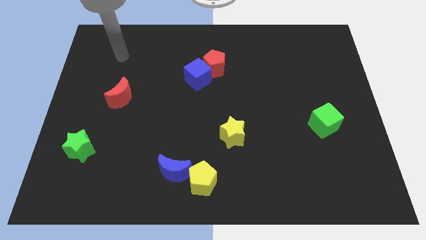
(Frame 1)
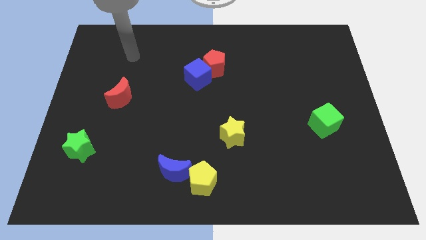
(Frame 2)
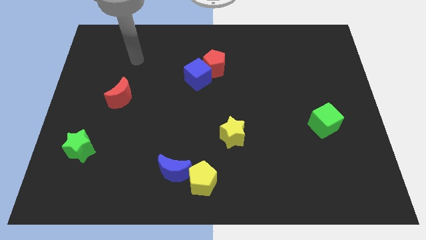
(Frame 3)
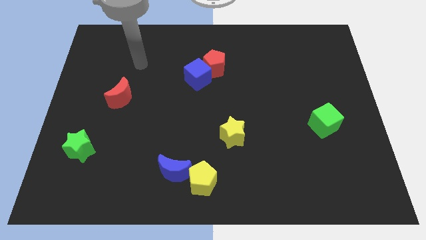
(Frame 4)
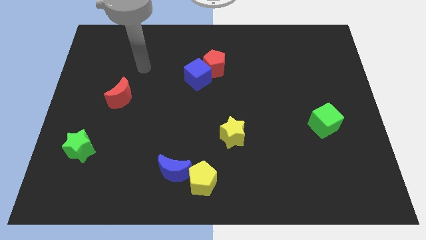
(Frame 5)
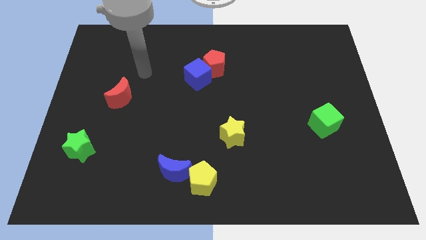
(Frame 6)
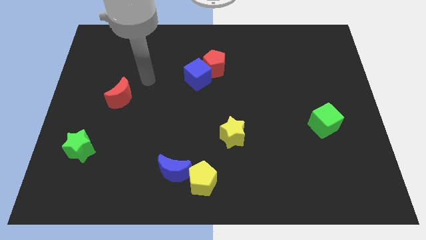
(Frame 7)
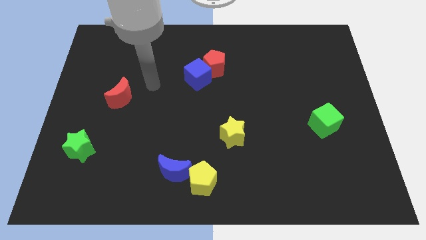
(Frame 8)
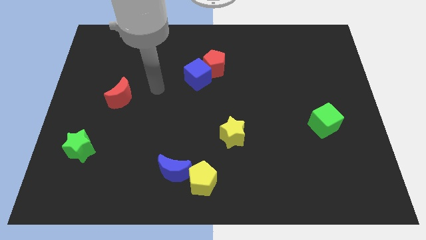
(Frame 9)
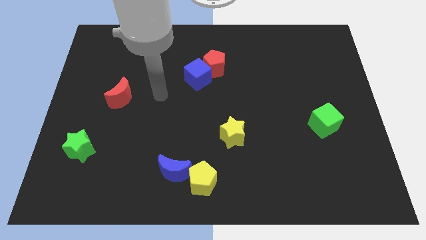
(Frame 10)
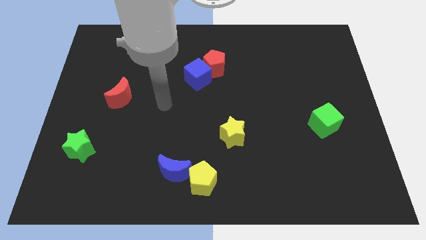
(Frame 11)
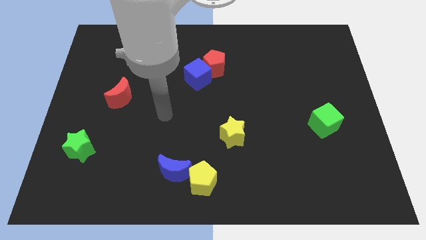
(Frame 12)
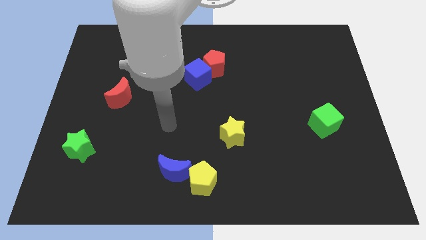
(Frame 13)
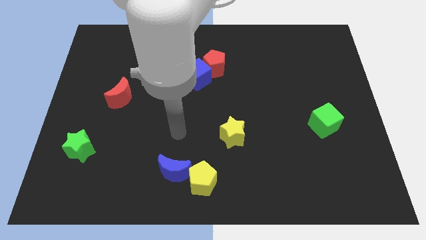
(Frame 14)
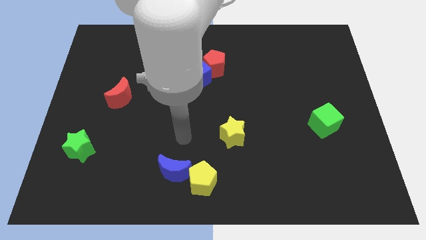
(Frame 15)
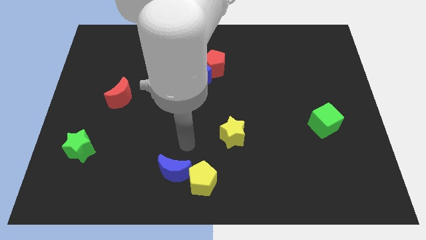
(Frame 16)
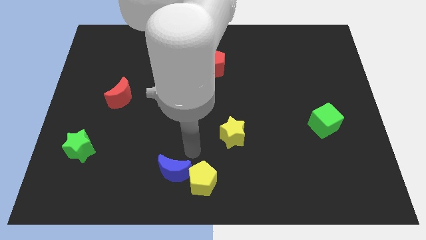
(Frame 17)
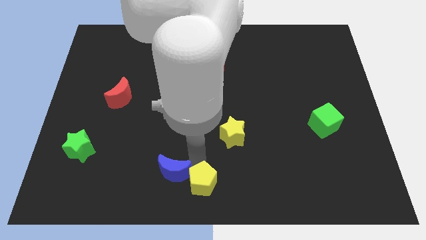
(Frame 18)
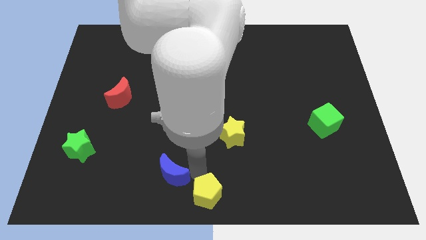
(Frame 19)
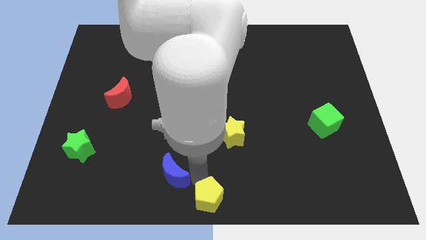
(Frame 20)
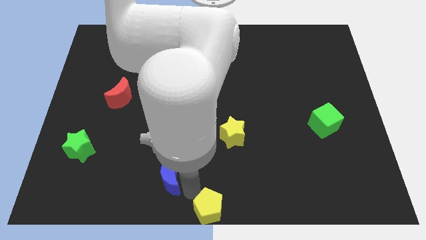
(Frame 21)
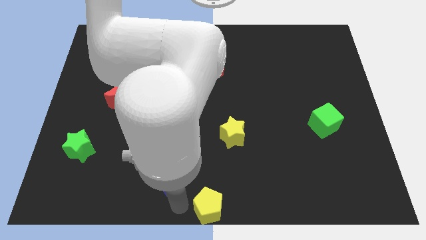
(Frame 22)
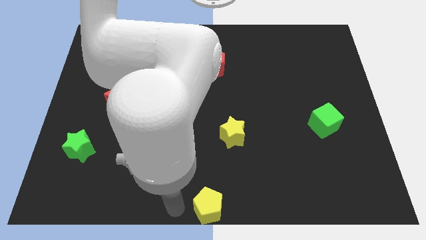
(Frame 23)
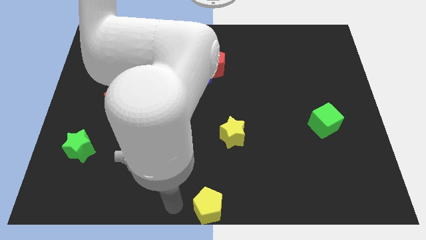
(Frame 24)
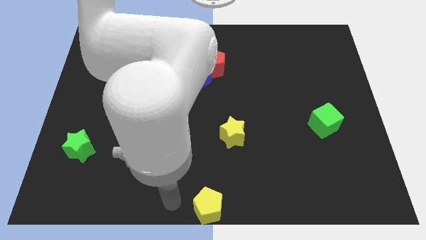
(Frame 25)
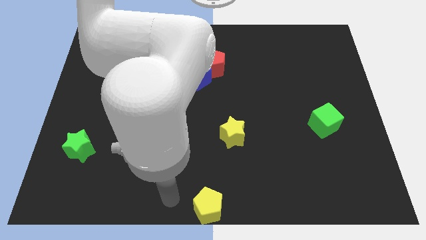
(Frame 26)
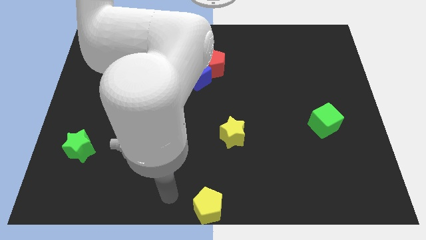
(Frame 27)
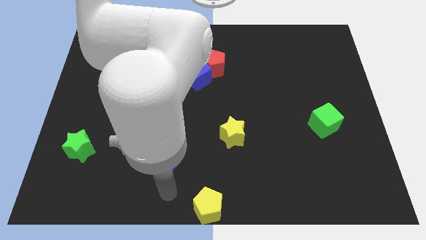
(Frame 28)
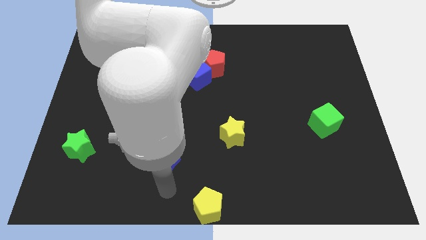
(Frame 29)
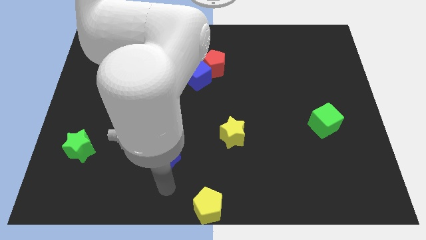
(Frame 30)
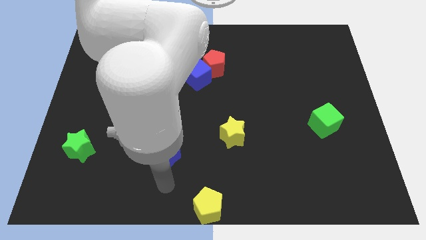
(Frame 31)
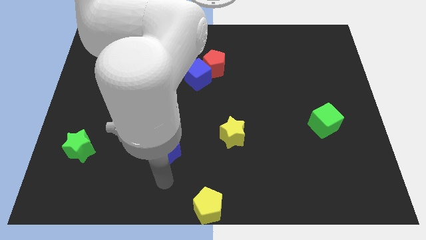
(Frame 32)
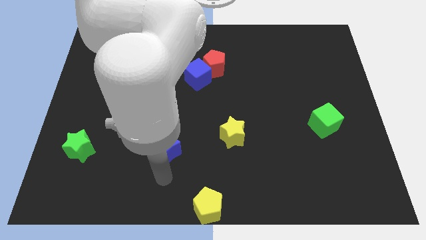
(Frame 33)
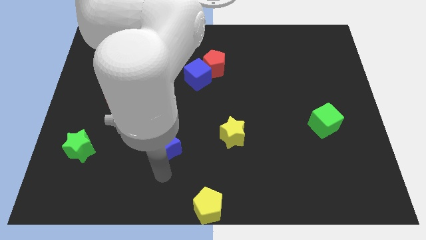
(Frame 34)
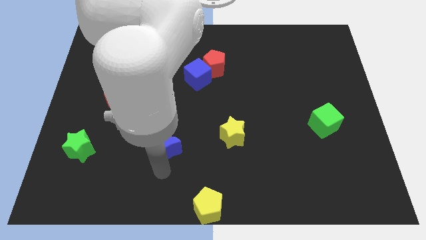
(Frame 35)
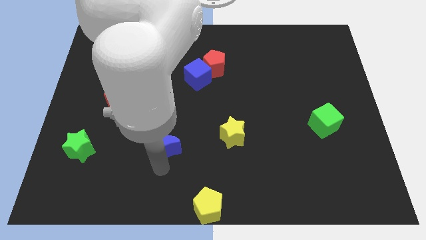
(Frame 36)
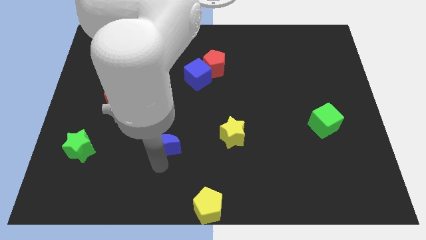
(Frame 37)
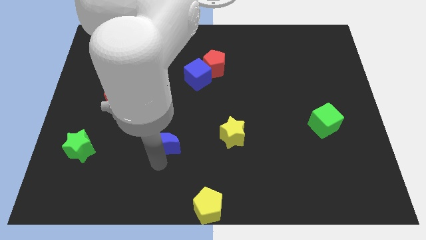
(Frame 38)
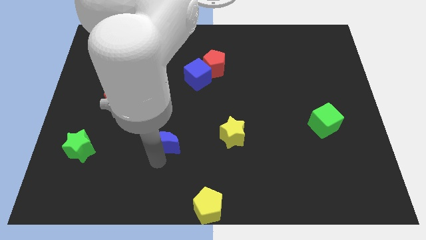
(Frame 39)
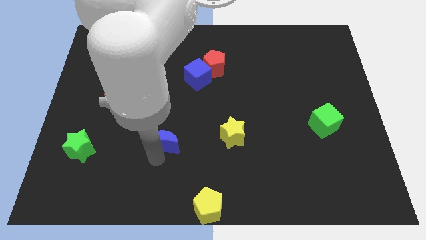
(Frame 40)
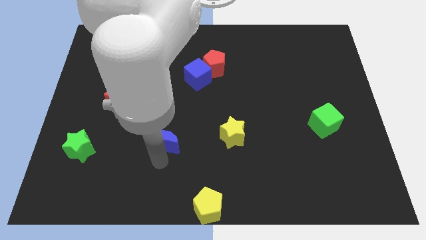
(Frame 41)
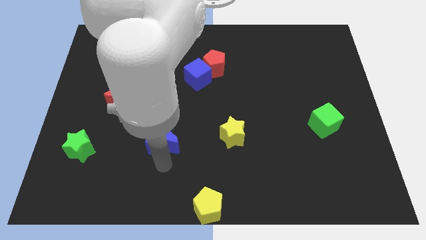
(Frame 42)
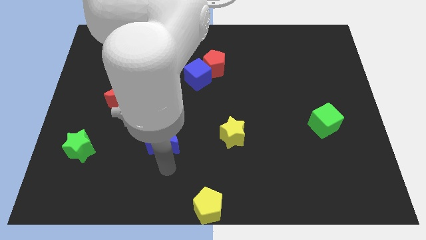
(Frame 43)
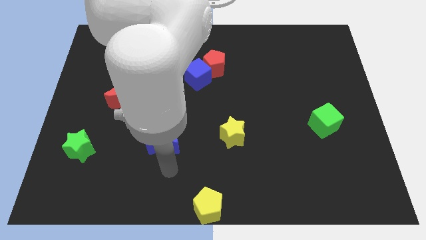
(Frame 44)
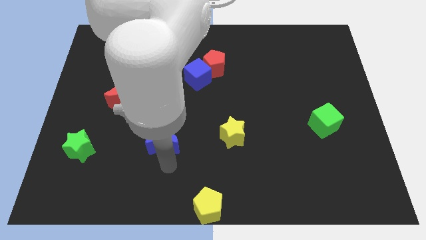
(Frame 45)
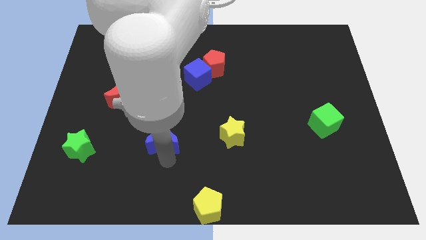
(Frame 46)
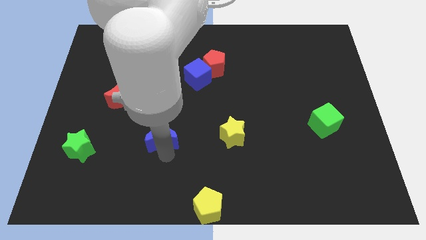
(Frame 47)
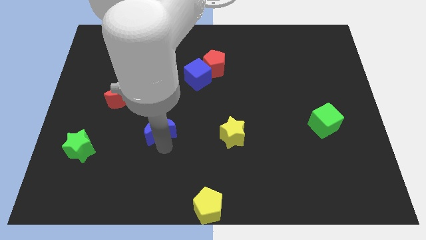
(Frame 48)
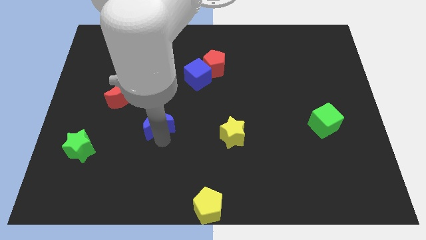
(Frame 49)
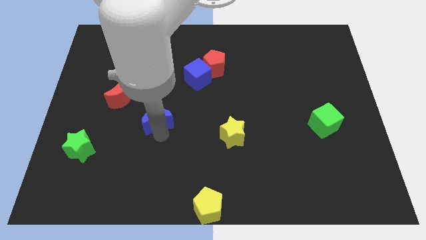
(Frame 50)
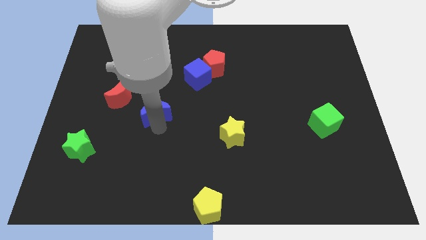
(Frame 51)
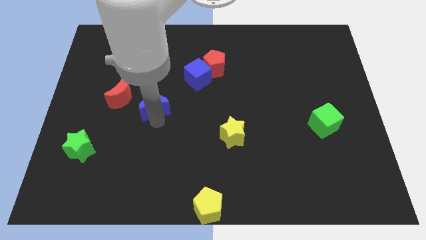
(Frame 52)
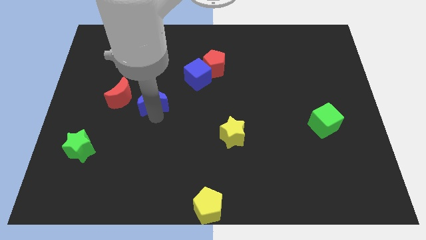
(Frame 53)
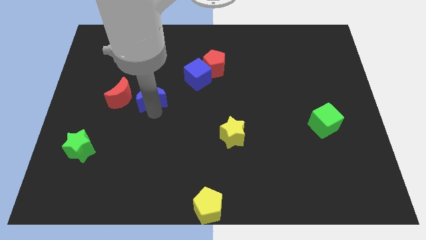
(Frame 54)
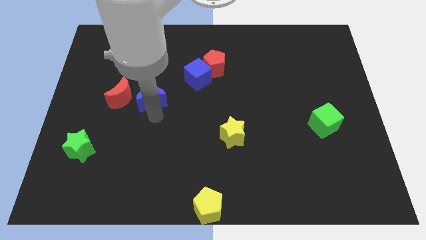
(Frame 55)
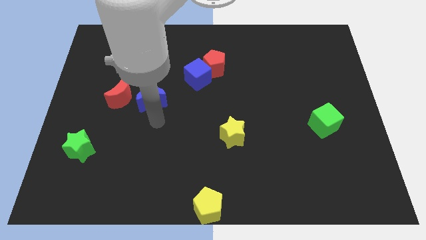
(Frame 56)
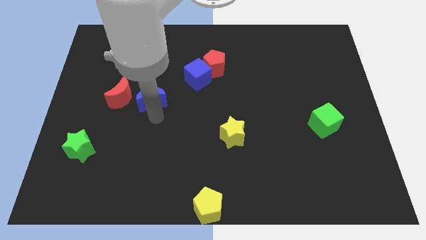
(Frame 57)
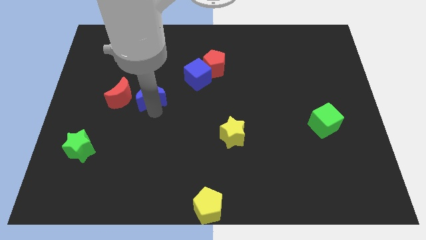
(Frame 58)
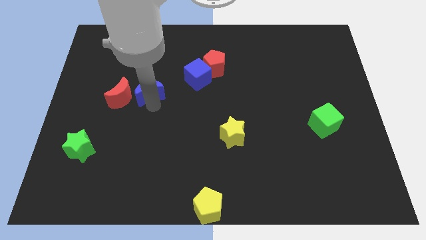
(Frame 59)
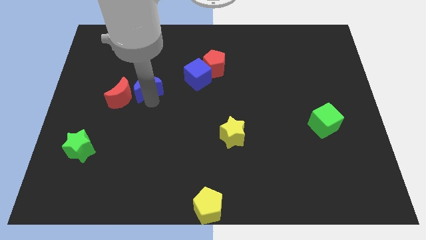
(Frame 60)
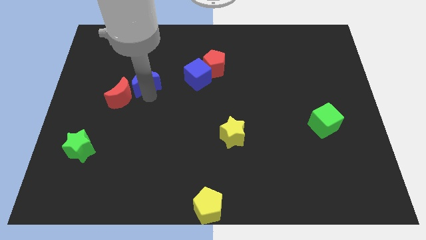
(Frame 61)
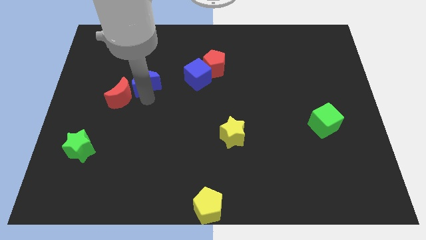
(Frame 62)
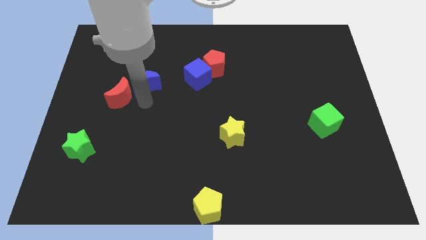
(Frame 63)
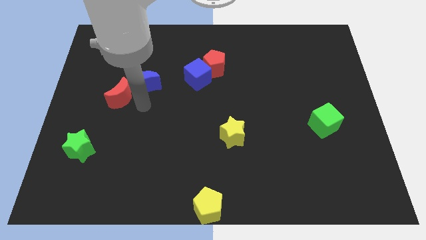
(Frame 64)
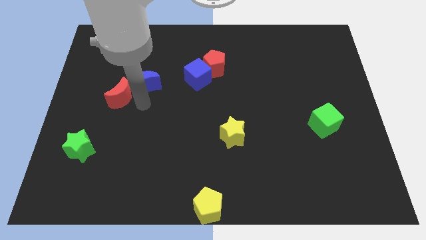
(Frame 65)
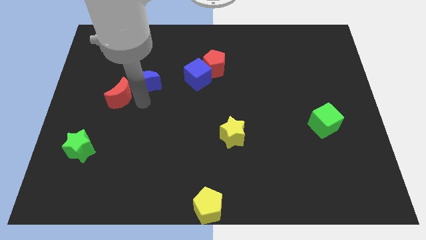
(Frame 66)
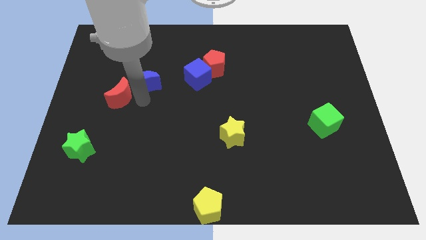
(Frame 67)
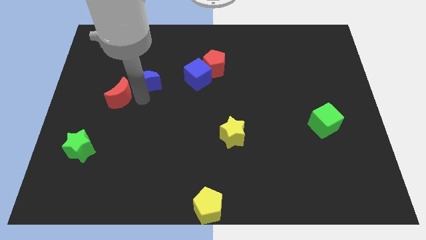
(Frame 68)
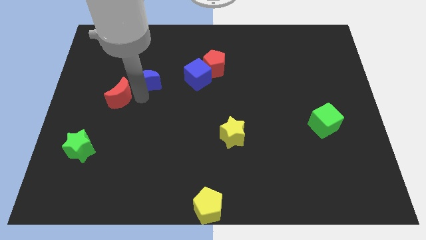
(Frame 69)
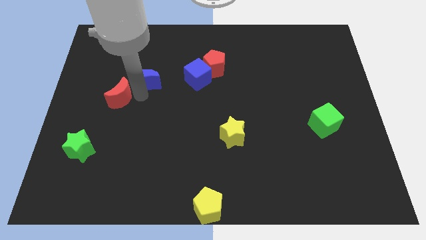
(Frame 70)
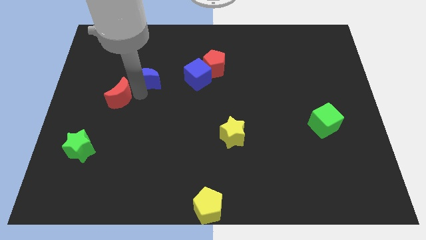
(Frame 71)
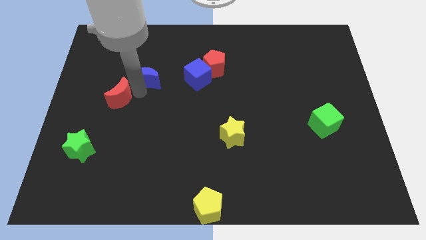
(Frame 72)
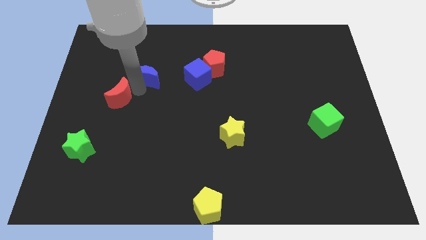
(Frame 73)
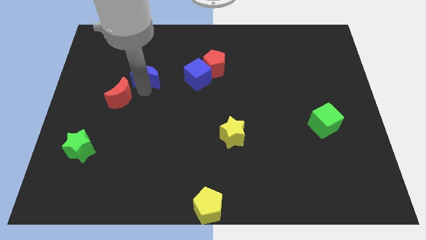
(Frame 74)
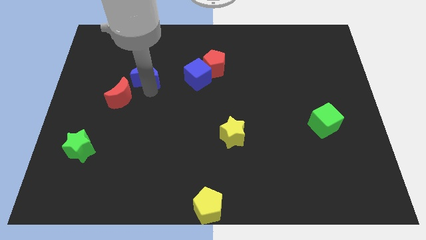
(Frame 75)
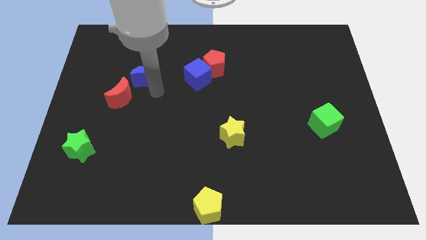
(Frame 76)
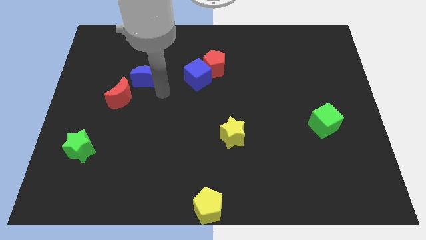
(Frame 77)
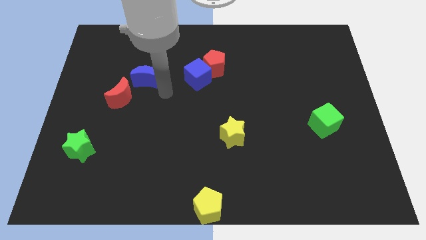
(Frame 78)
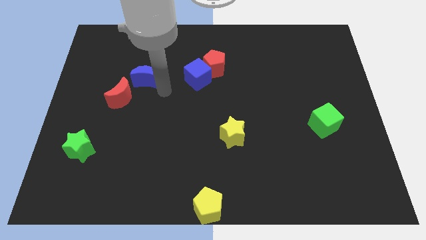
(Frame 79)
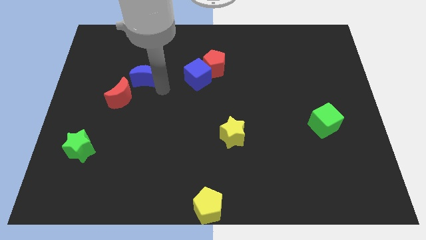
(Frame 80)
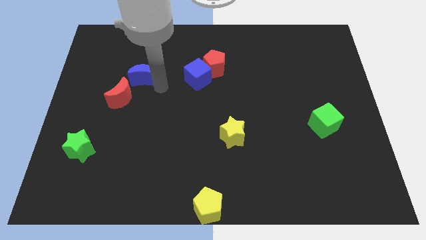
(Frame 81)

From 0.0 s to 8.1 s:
push the blue moon to the top side of the red moon
